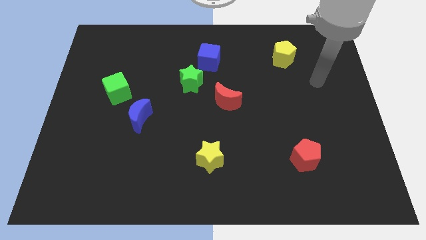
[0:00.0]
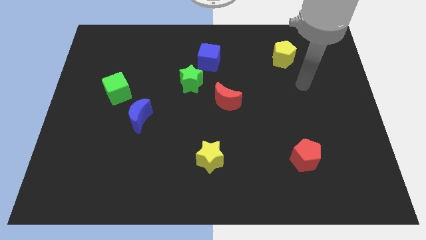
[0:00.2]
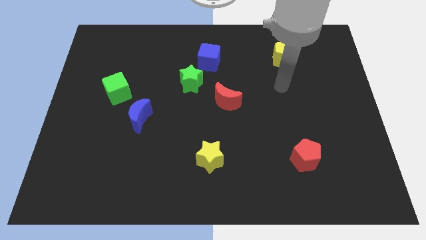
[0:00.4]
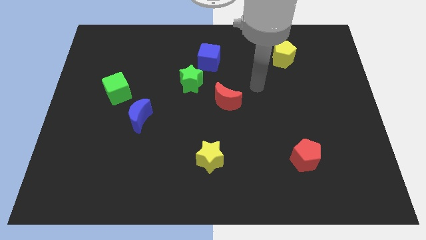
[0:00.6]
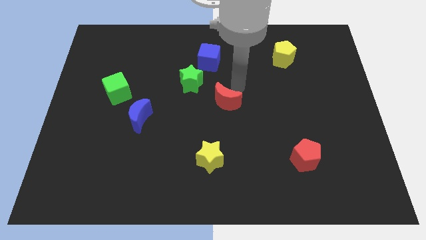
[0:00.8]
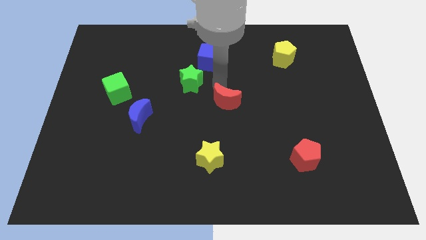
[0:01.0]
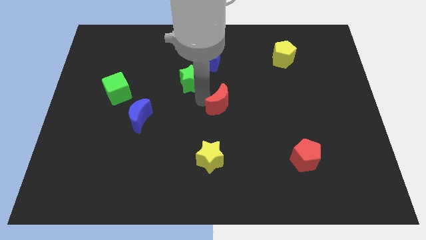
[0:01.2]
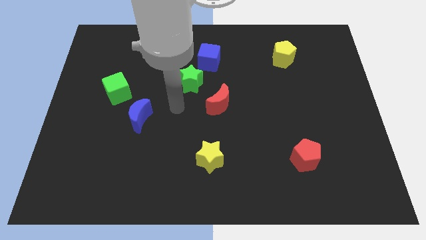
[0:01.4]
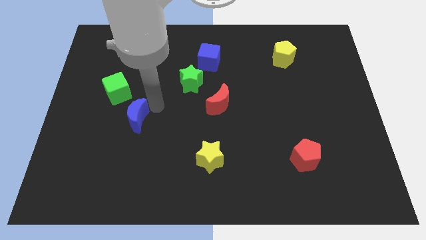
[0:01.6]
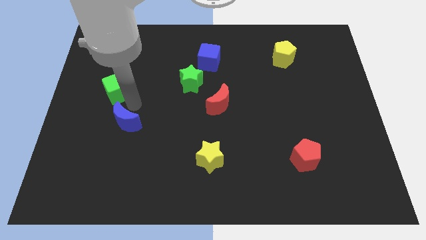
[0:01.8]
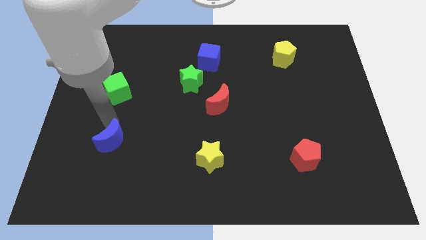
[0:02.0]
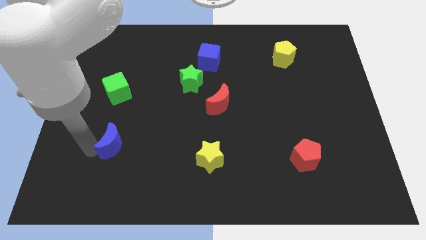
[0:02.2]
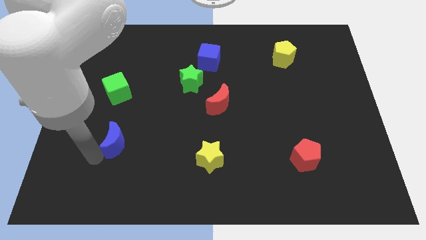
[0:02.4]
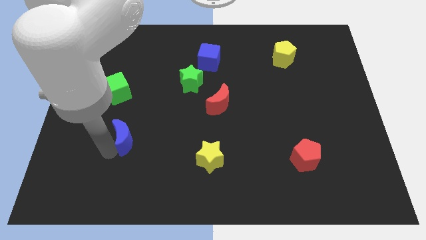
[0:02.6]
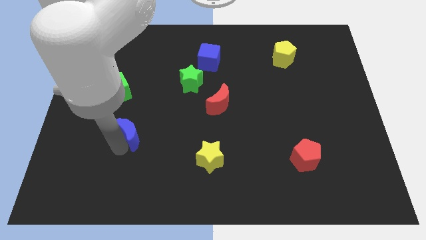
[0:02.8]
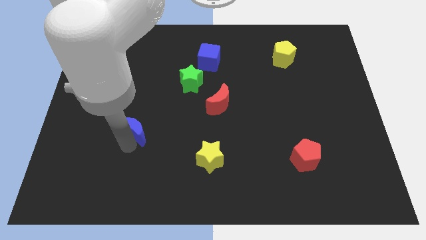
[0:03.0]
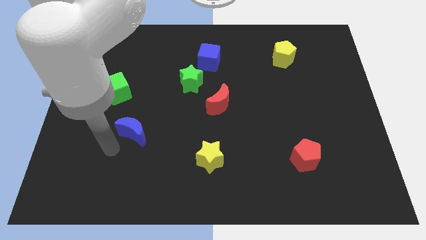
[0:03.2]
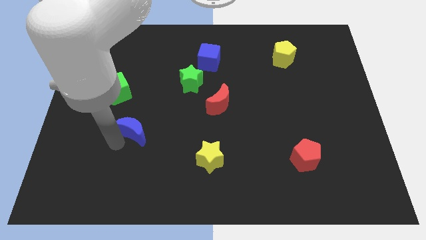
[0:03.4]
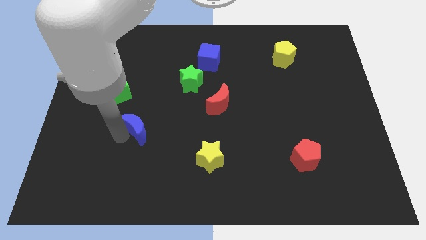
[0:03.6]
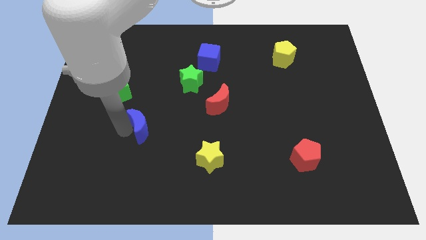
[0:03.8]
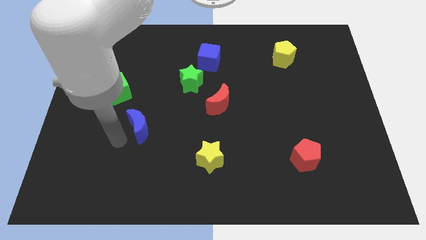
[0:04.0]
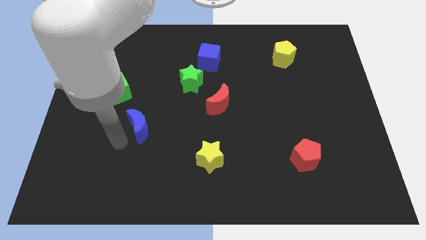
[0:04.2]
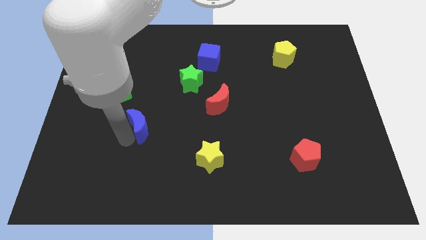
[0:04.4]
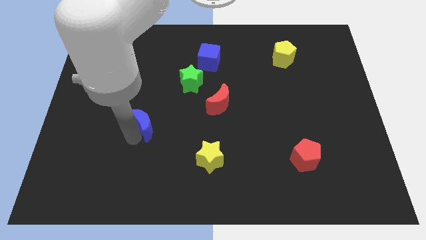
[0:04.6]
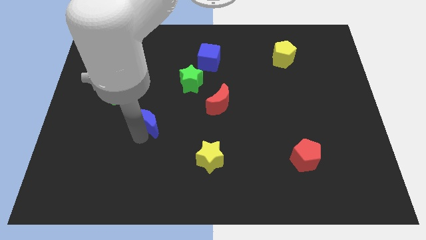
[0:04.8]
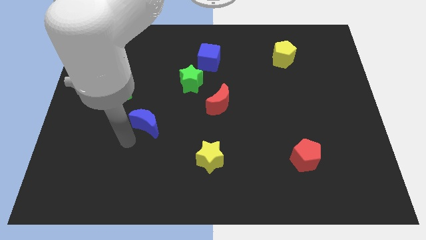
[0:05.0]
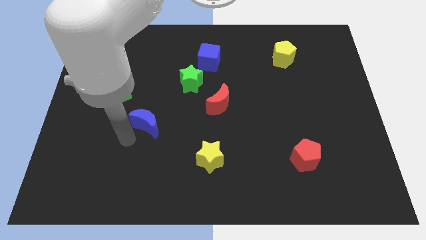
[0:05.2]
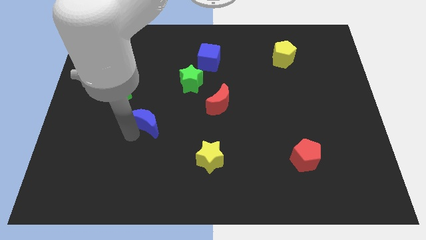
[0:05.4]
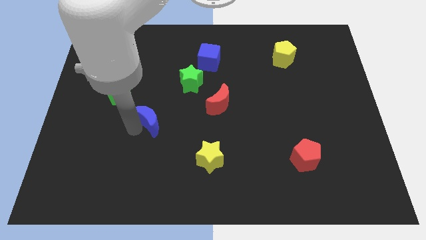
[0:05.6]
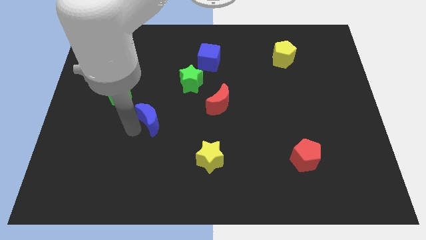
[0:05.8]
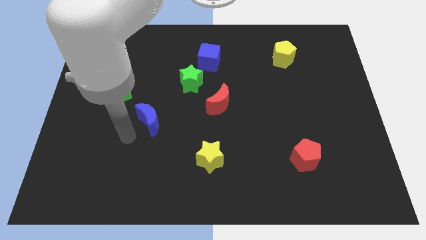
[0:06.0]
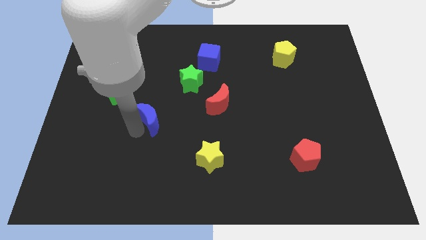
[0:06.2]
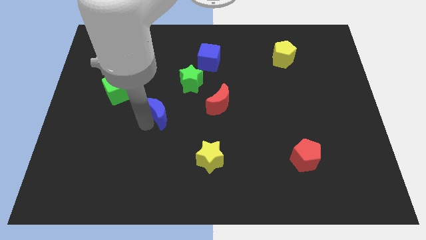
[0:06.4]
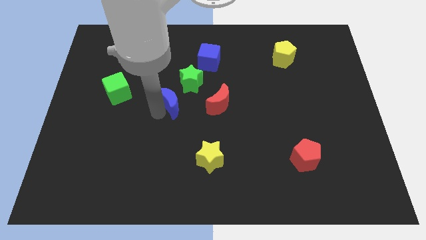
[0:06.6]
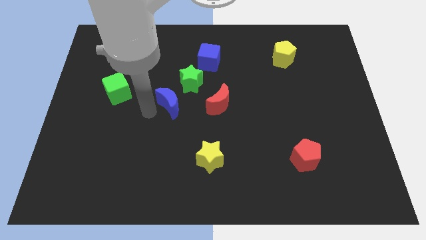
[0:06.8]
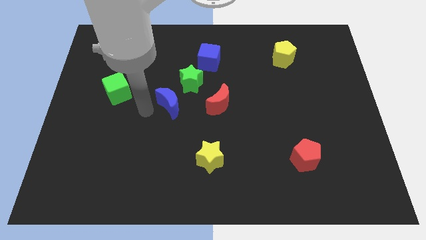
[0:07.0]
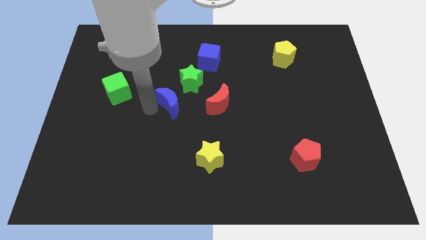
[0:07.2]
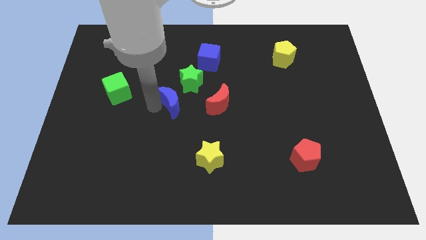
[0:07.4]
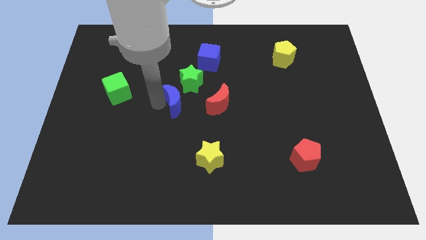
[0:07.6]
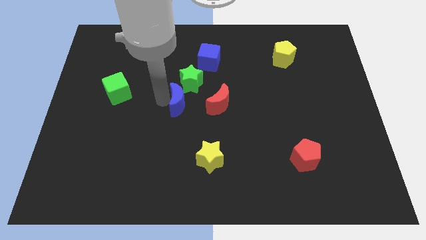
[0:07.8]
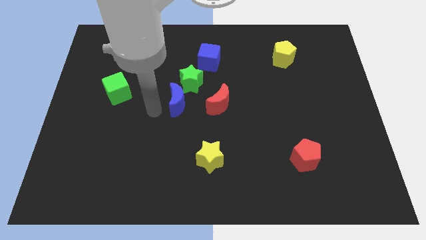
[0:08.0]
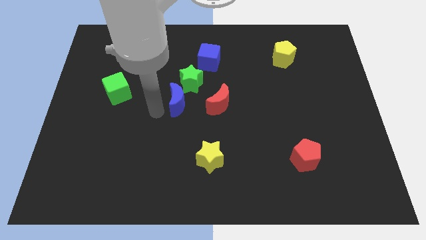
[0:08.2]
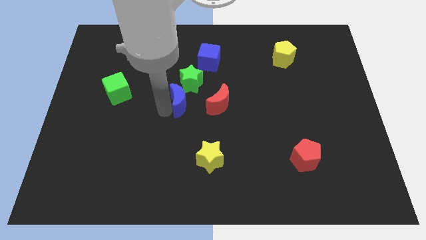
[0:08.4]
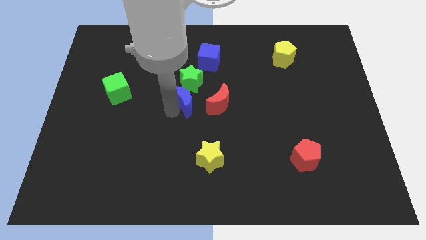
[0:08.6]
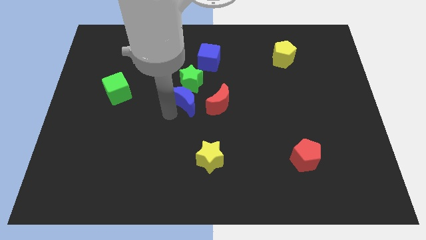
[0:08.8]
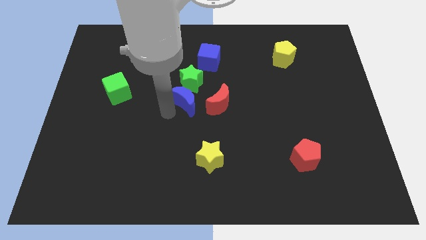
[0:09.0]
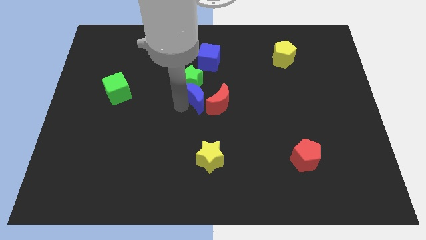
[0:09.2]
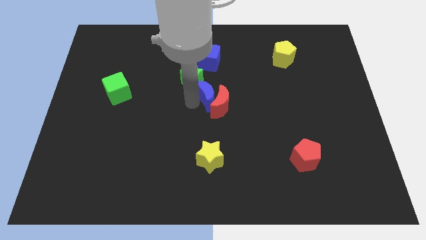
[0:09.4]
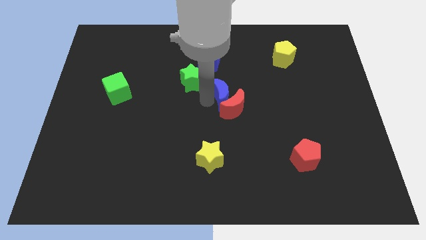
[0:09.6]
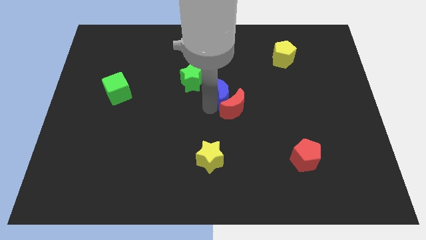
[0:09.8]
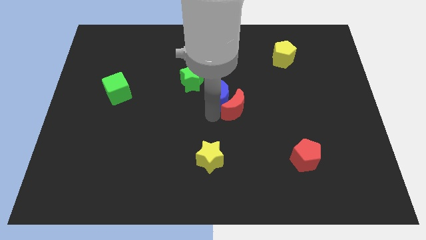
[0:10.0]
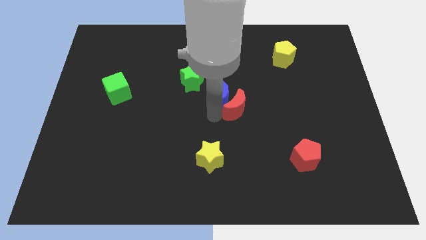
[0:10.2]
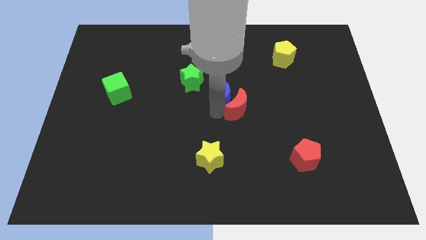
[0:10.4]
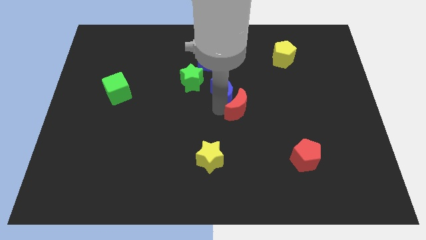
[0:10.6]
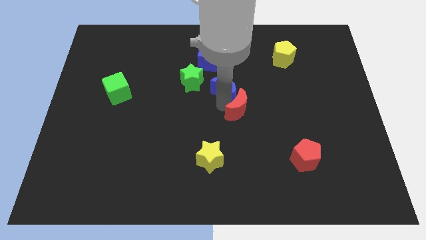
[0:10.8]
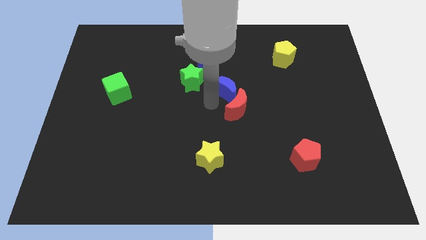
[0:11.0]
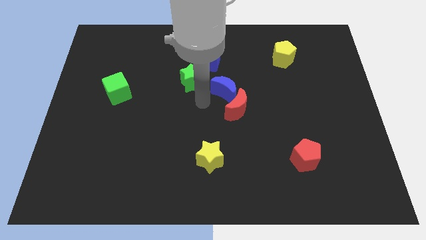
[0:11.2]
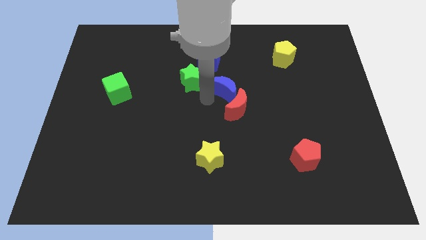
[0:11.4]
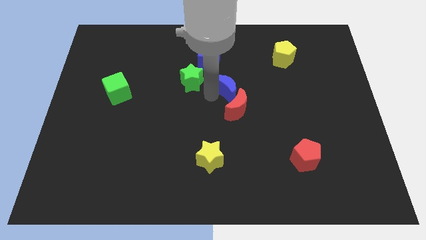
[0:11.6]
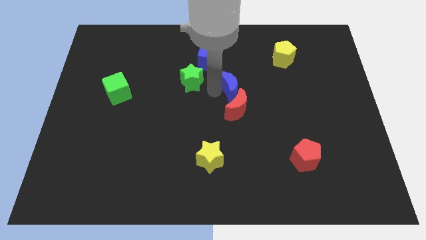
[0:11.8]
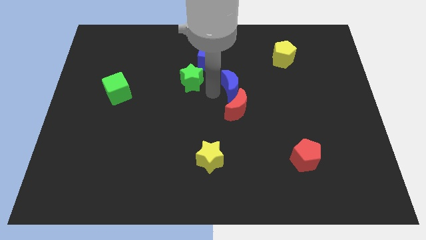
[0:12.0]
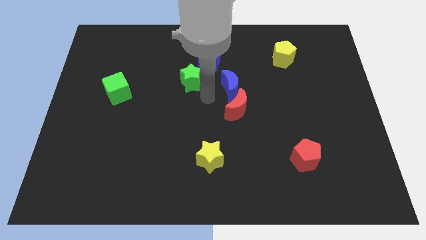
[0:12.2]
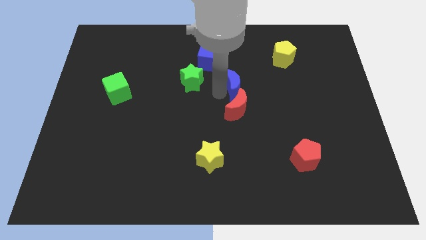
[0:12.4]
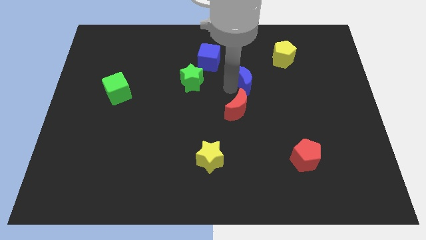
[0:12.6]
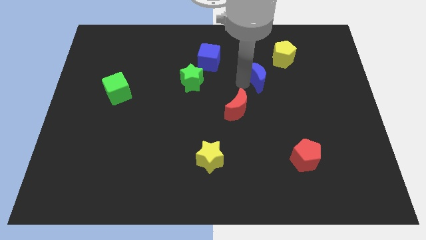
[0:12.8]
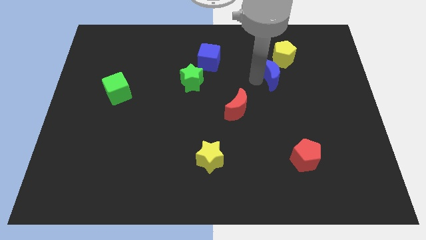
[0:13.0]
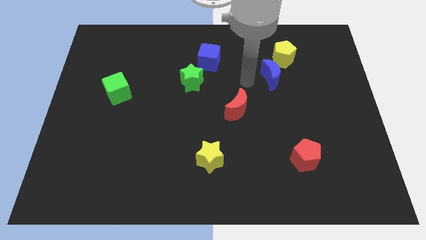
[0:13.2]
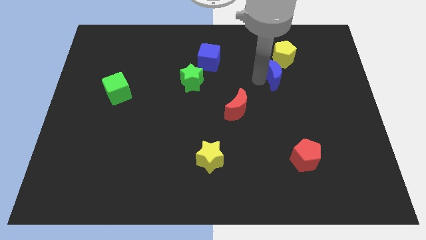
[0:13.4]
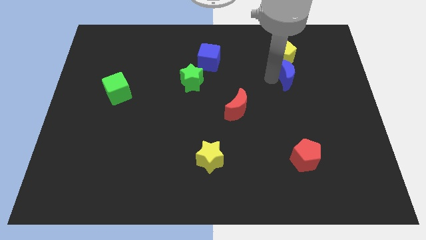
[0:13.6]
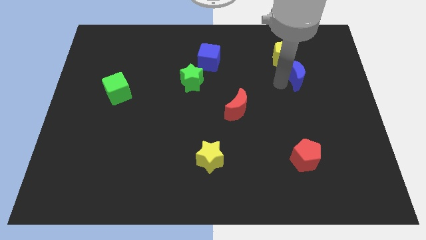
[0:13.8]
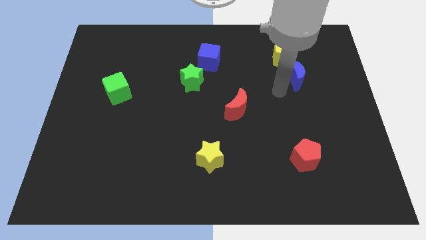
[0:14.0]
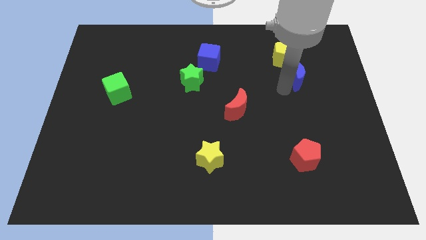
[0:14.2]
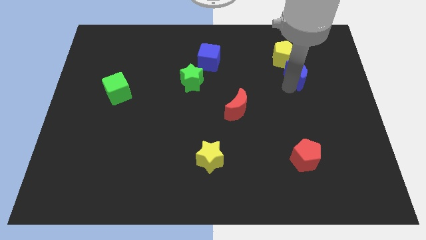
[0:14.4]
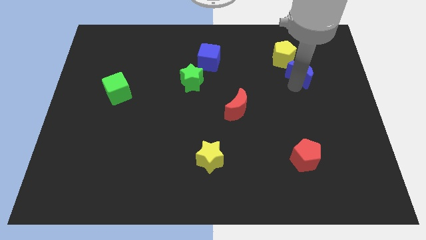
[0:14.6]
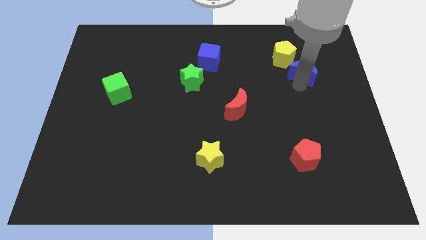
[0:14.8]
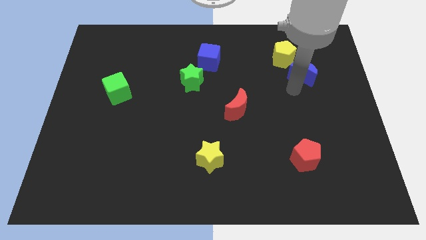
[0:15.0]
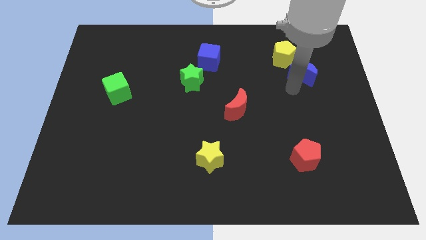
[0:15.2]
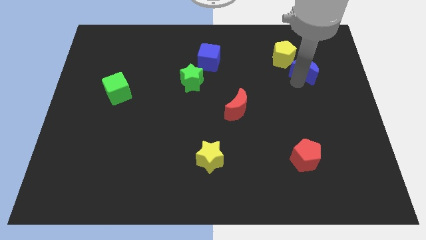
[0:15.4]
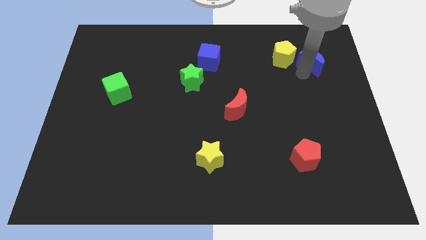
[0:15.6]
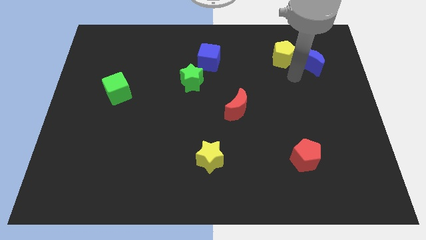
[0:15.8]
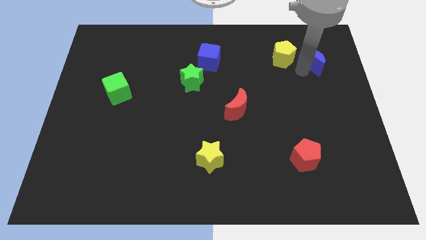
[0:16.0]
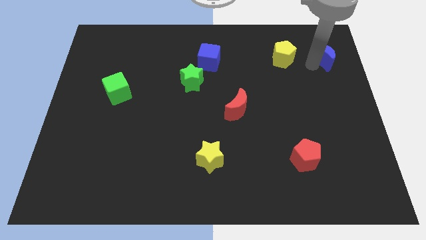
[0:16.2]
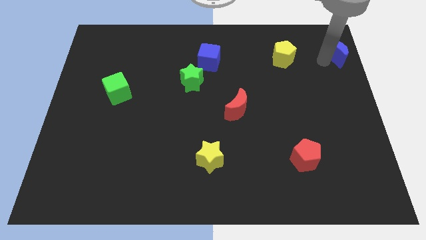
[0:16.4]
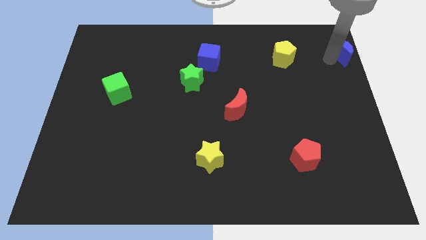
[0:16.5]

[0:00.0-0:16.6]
put the blue moon to the top right of the board
